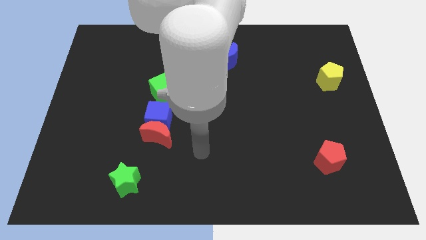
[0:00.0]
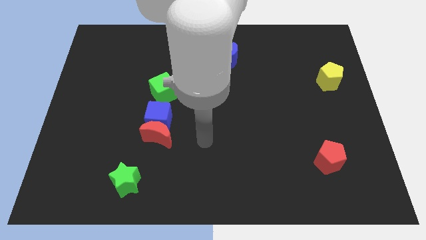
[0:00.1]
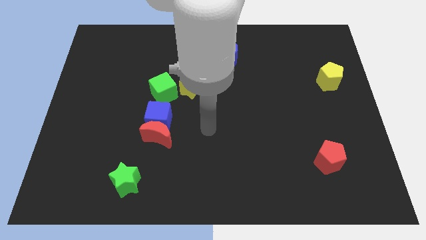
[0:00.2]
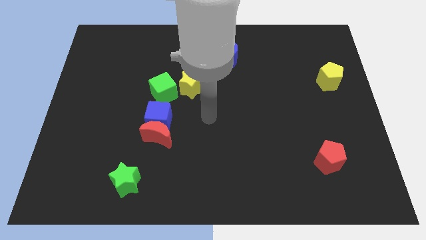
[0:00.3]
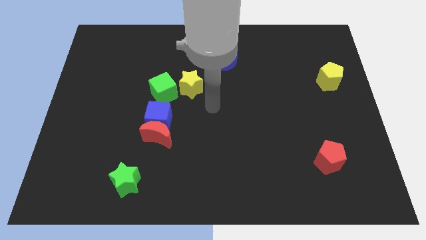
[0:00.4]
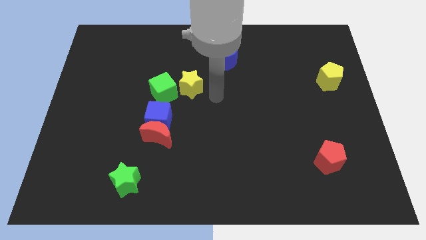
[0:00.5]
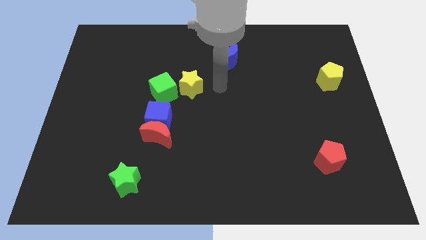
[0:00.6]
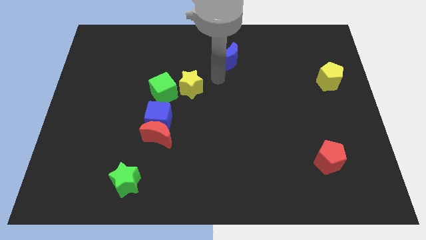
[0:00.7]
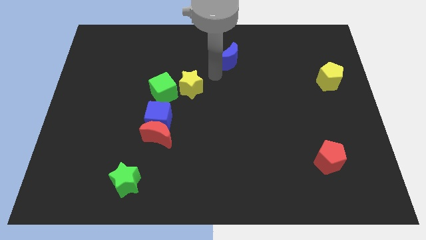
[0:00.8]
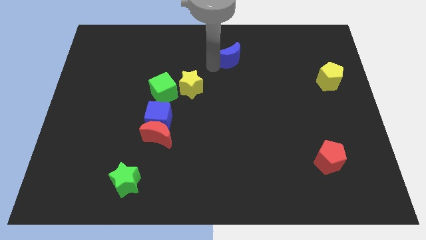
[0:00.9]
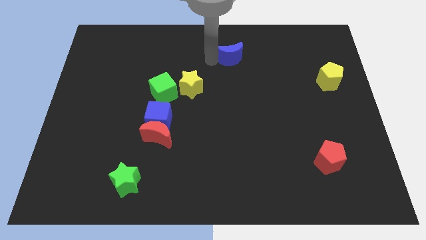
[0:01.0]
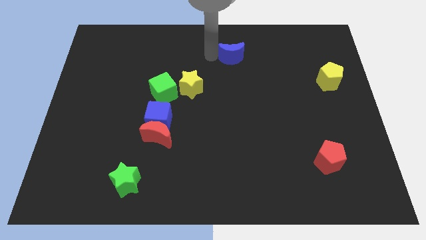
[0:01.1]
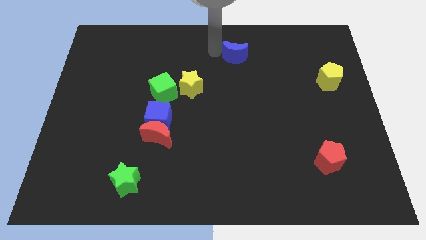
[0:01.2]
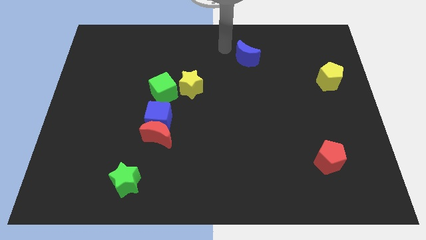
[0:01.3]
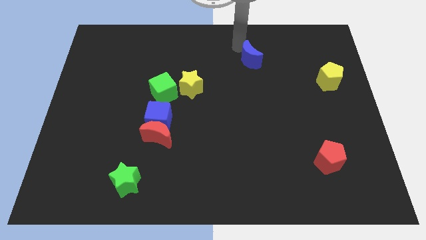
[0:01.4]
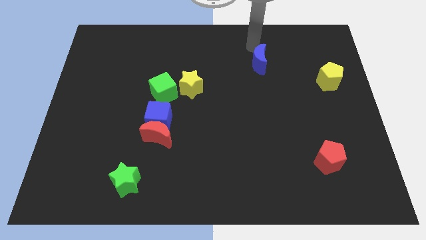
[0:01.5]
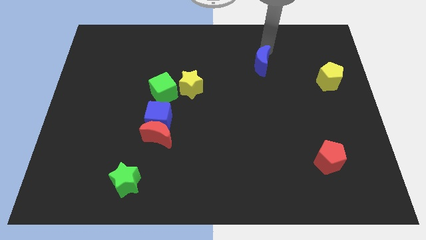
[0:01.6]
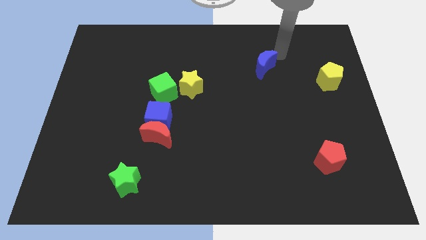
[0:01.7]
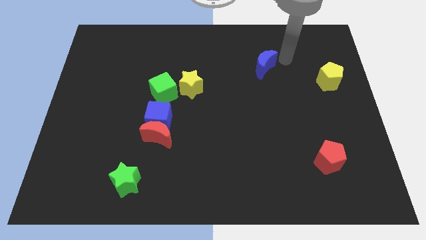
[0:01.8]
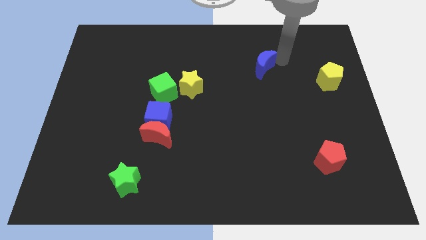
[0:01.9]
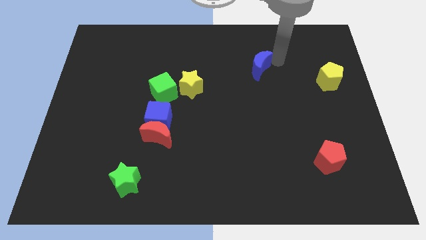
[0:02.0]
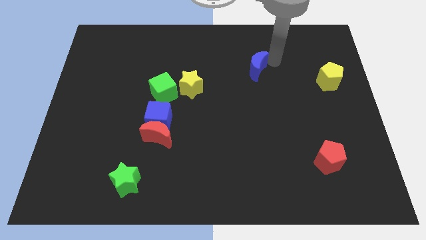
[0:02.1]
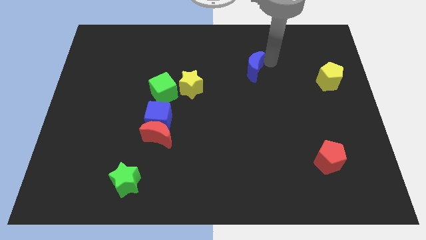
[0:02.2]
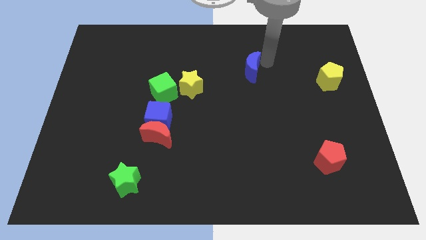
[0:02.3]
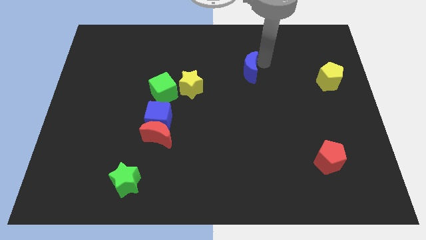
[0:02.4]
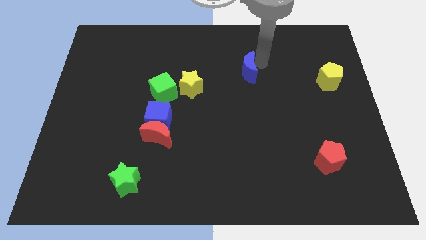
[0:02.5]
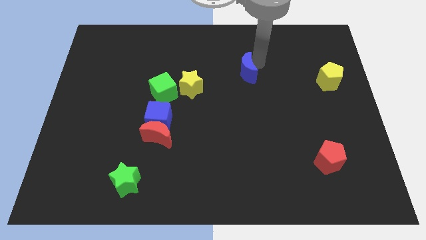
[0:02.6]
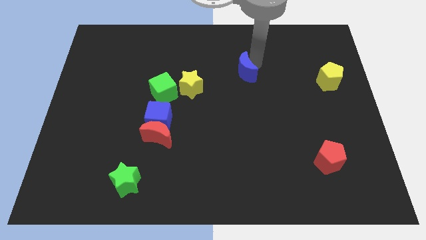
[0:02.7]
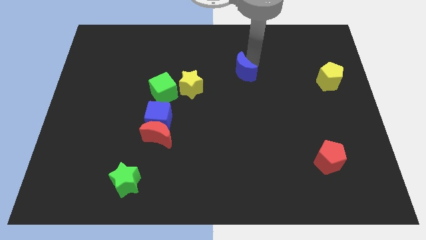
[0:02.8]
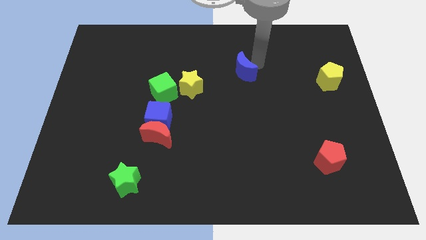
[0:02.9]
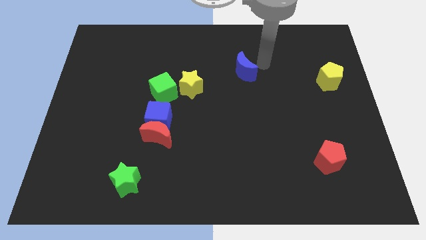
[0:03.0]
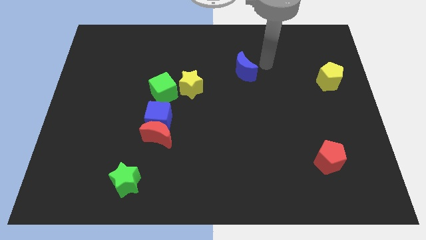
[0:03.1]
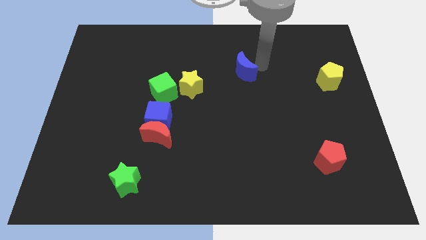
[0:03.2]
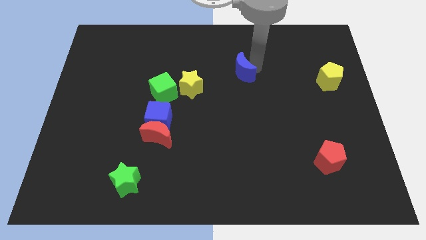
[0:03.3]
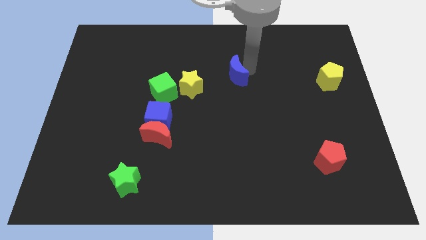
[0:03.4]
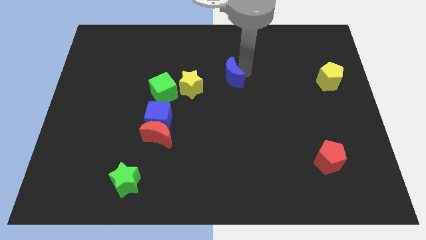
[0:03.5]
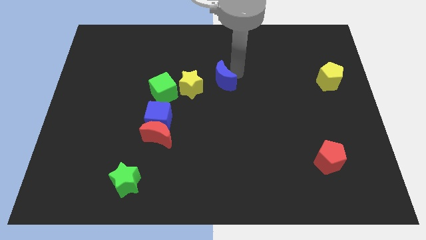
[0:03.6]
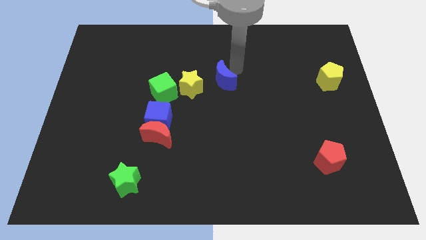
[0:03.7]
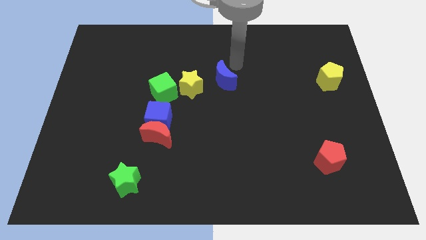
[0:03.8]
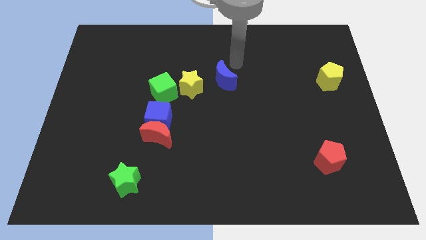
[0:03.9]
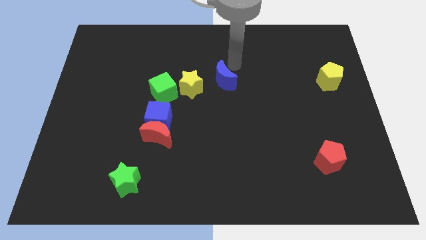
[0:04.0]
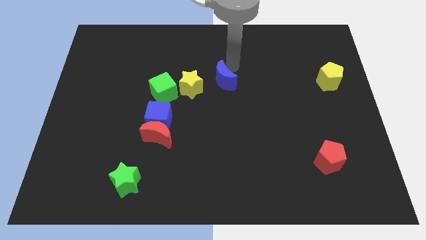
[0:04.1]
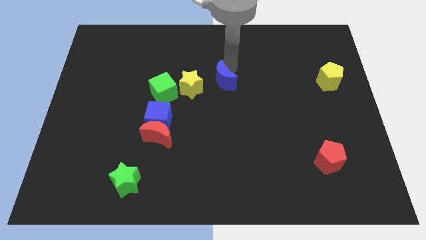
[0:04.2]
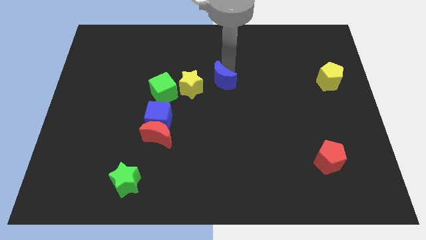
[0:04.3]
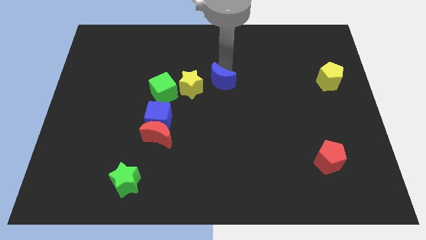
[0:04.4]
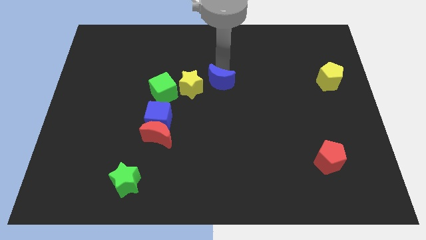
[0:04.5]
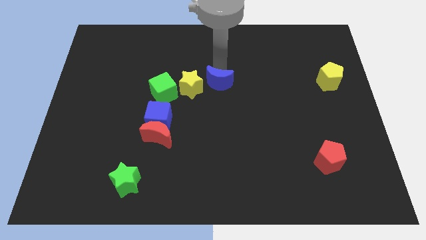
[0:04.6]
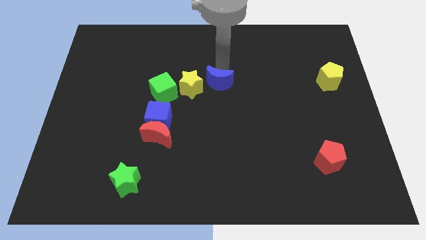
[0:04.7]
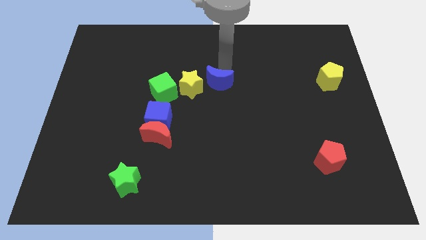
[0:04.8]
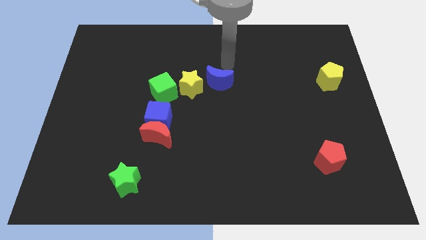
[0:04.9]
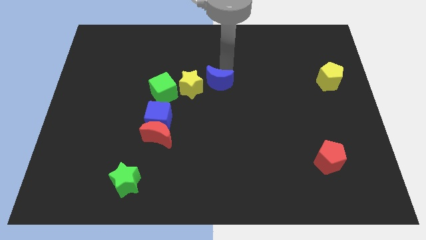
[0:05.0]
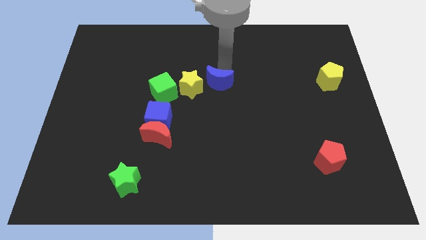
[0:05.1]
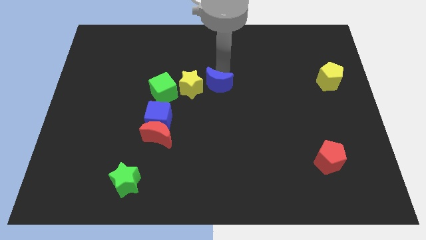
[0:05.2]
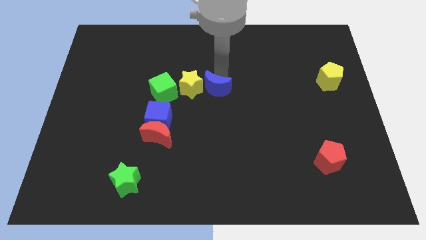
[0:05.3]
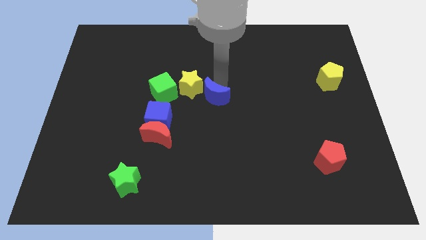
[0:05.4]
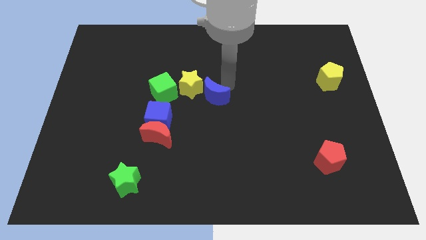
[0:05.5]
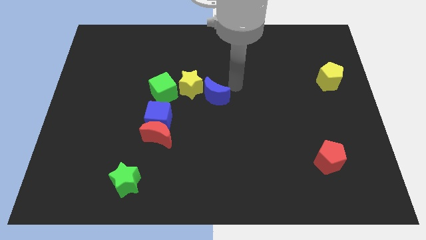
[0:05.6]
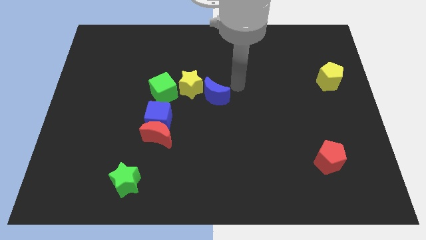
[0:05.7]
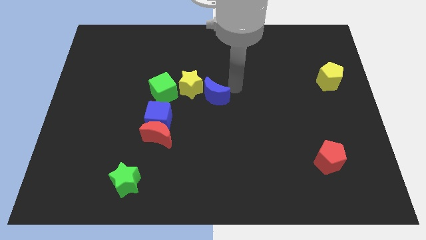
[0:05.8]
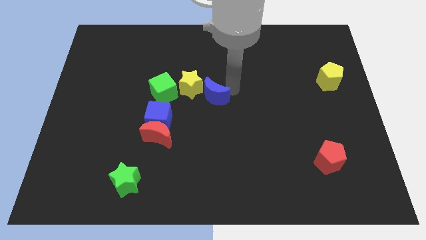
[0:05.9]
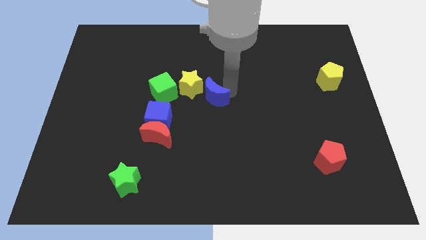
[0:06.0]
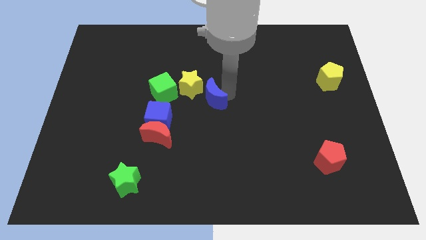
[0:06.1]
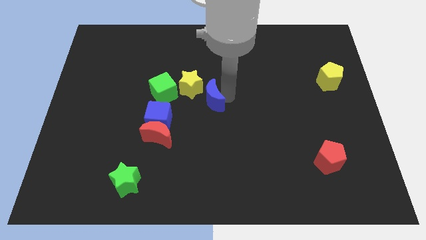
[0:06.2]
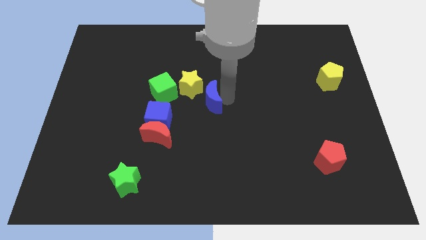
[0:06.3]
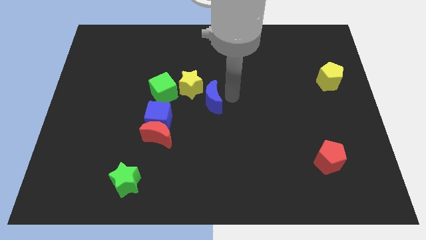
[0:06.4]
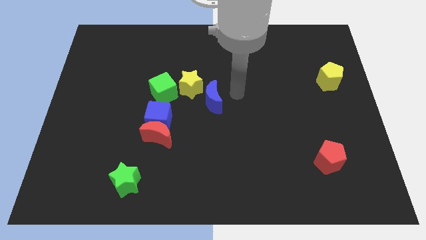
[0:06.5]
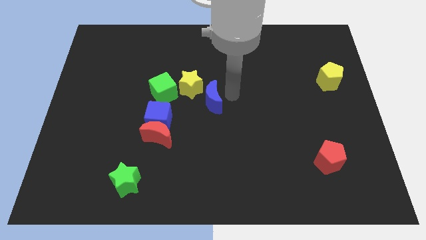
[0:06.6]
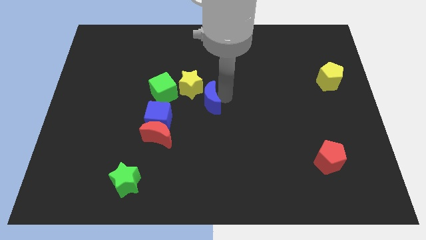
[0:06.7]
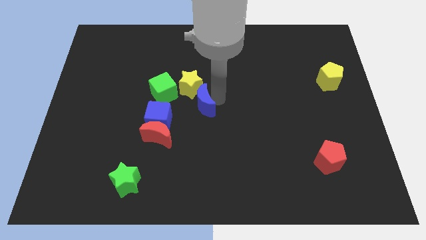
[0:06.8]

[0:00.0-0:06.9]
move the blue moon to the bottom right side of the green cube

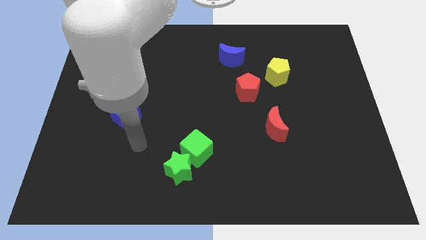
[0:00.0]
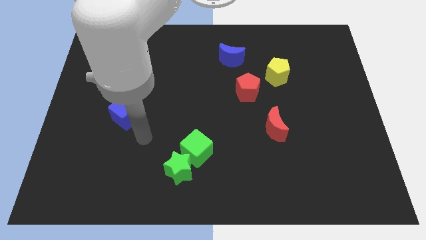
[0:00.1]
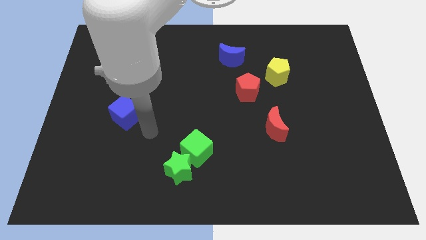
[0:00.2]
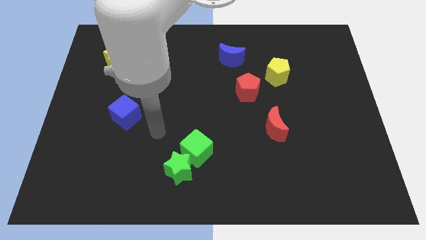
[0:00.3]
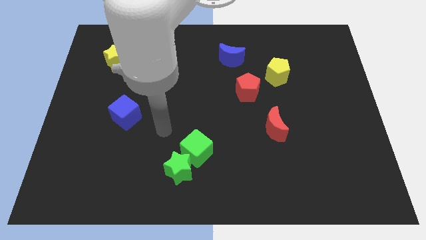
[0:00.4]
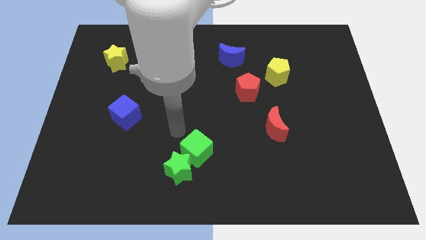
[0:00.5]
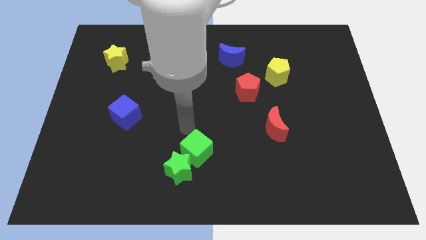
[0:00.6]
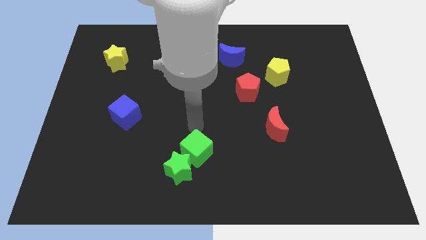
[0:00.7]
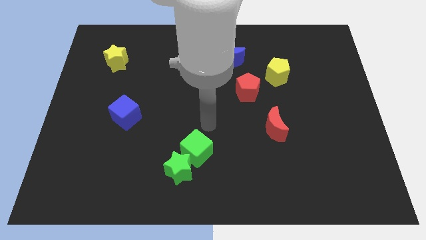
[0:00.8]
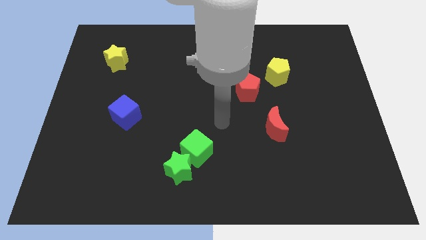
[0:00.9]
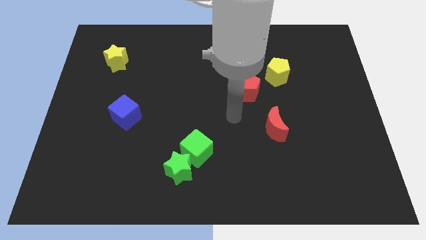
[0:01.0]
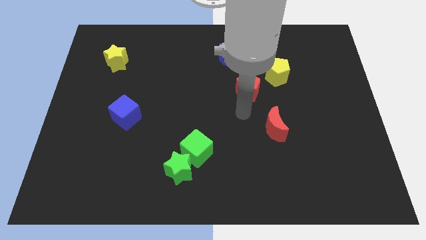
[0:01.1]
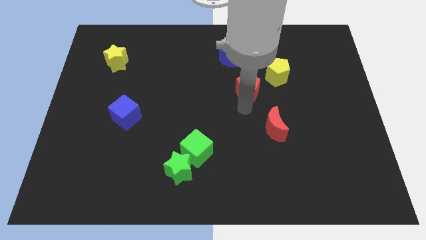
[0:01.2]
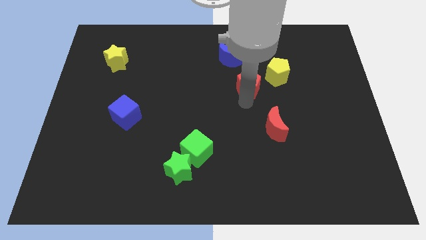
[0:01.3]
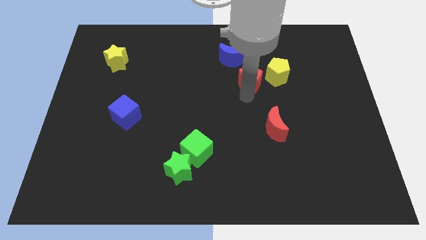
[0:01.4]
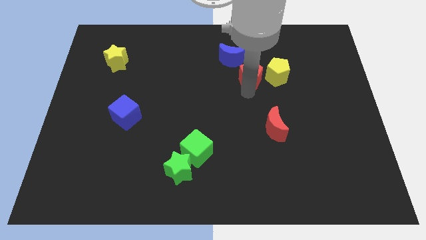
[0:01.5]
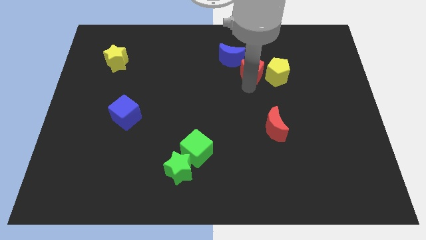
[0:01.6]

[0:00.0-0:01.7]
move the red pentagon diagonally up and to the left of the yellow pentagon
